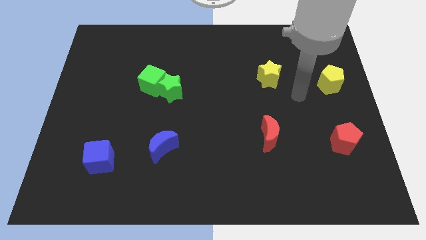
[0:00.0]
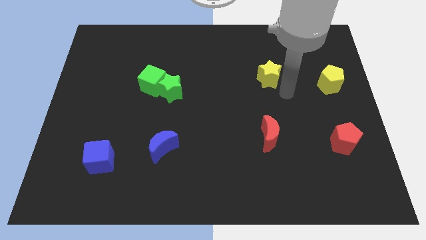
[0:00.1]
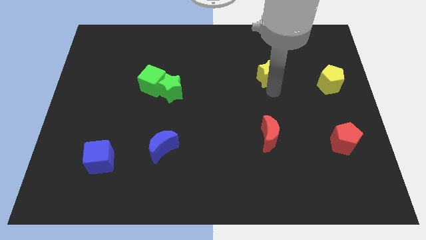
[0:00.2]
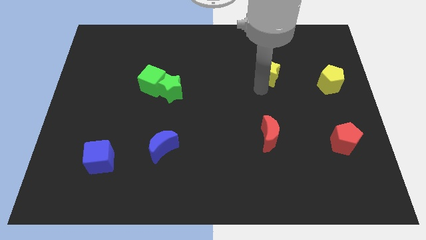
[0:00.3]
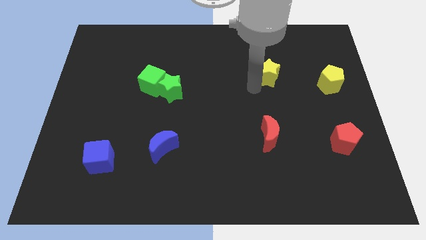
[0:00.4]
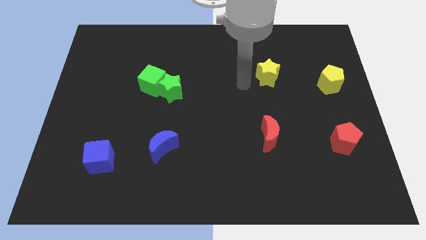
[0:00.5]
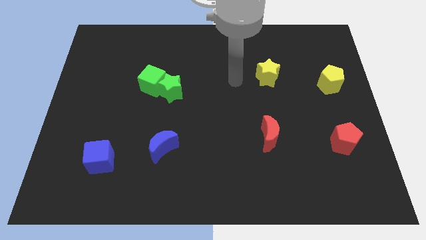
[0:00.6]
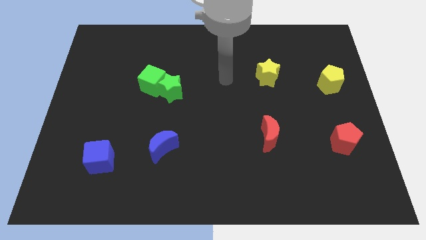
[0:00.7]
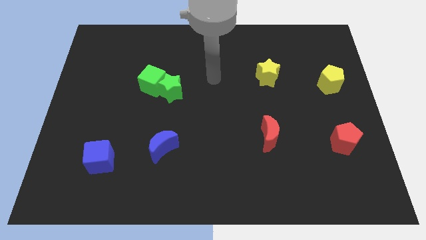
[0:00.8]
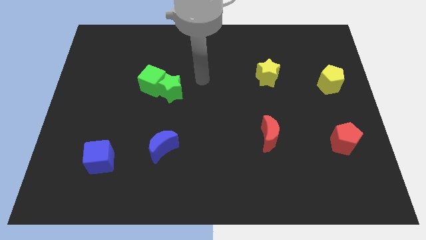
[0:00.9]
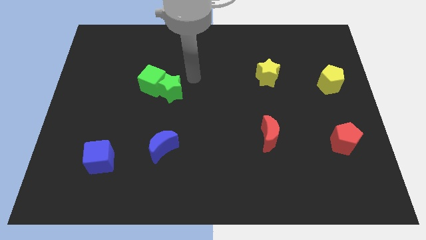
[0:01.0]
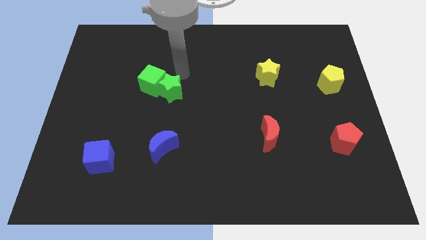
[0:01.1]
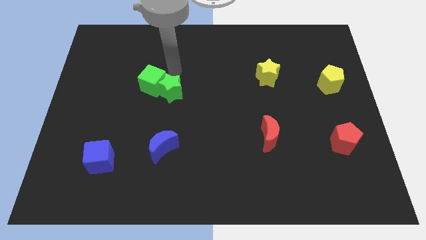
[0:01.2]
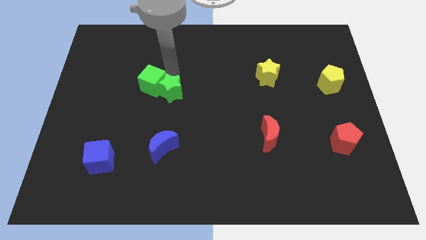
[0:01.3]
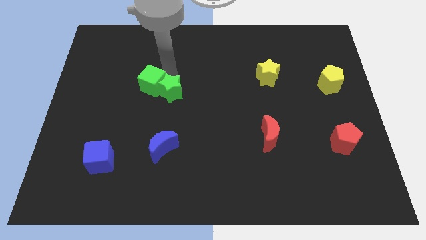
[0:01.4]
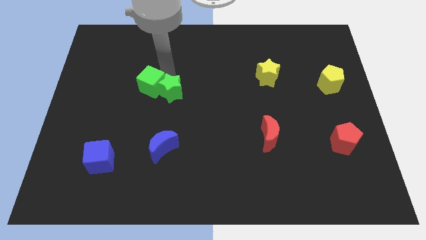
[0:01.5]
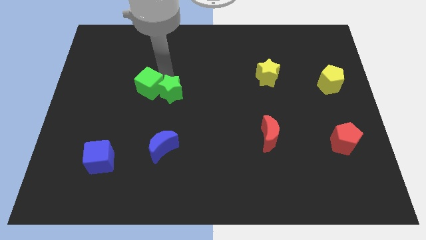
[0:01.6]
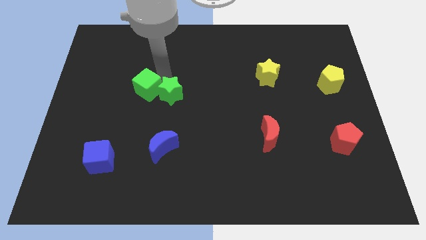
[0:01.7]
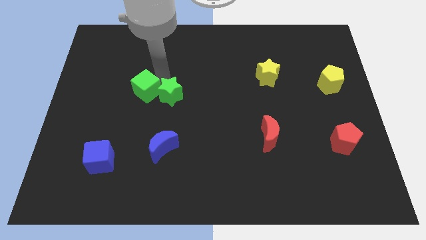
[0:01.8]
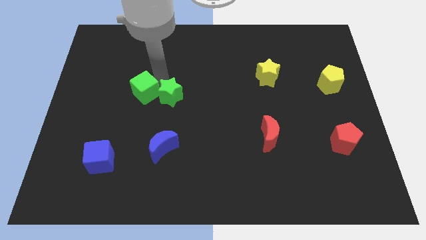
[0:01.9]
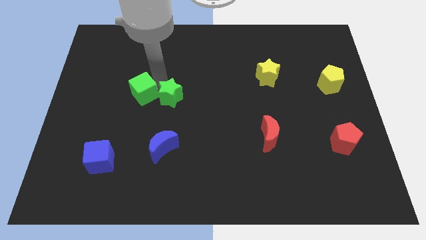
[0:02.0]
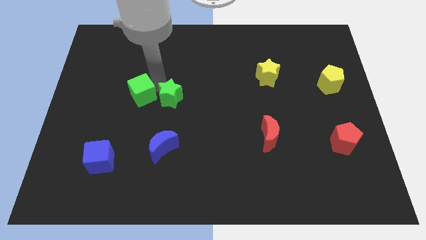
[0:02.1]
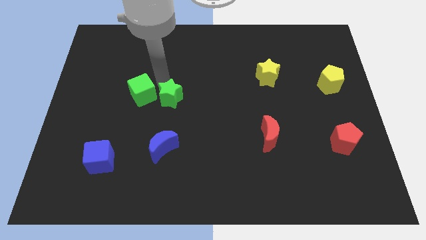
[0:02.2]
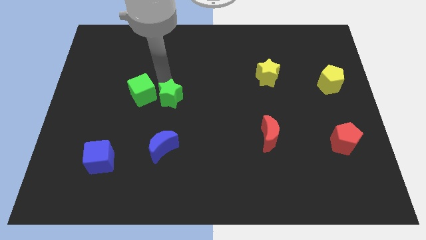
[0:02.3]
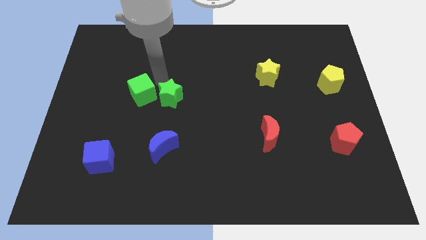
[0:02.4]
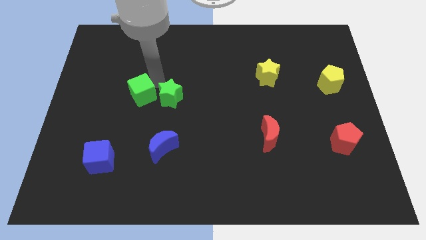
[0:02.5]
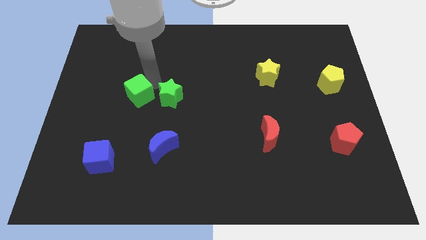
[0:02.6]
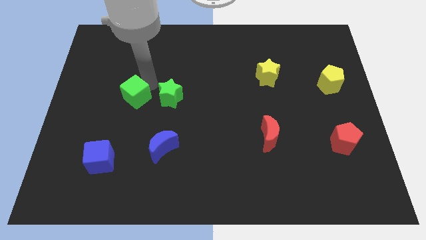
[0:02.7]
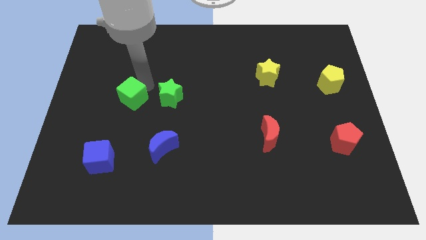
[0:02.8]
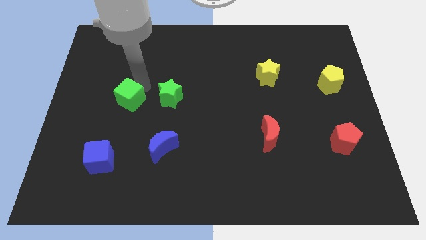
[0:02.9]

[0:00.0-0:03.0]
slide the green cube diagonally downwards and left a little bit

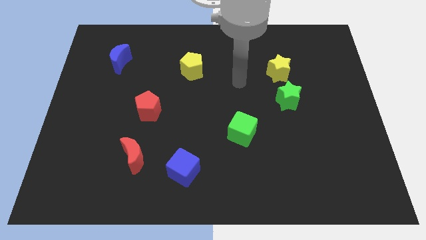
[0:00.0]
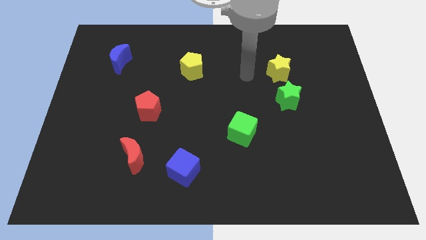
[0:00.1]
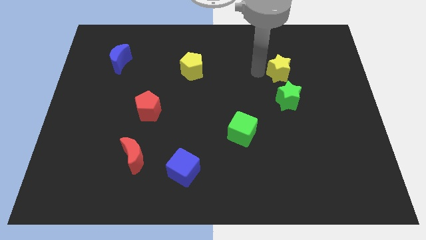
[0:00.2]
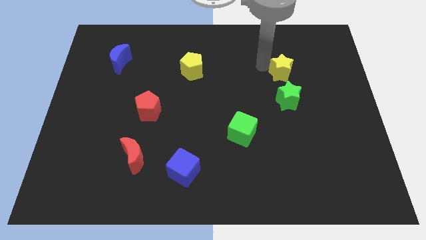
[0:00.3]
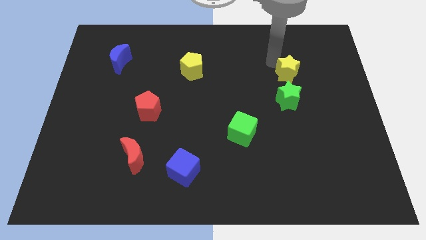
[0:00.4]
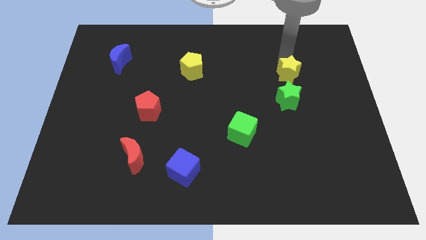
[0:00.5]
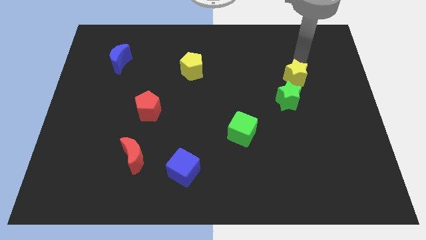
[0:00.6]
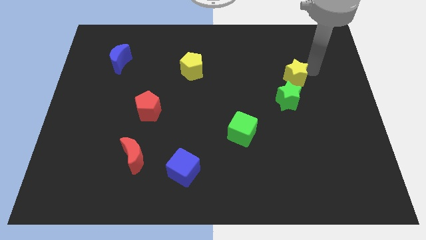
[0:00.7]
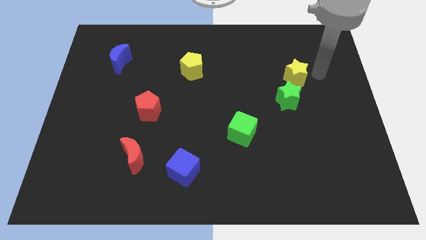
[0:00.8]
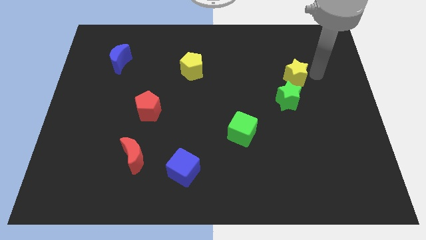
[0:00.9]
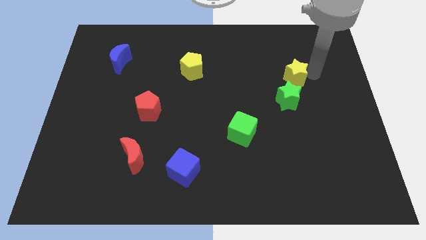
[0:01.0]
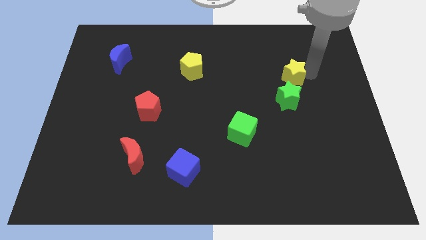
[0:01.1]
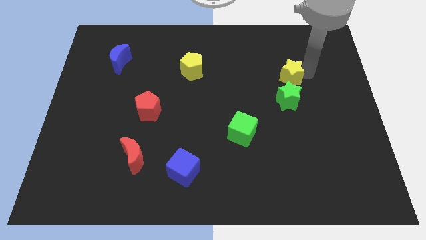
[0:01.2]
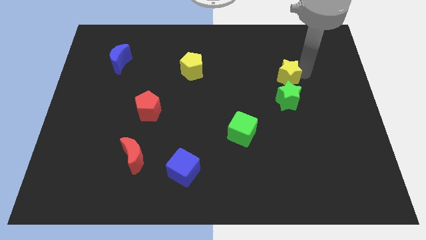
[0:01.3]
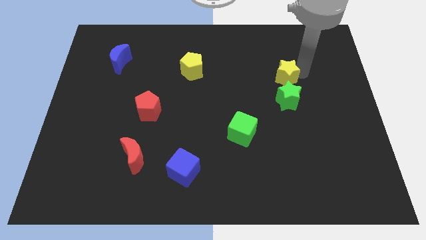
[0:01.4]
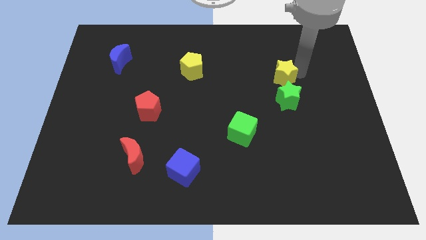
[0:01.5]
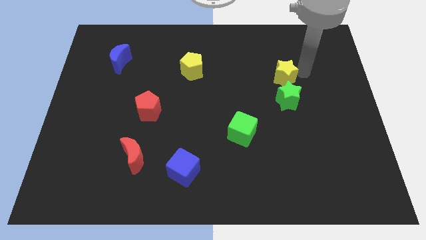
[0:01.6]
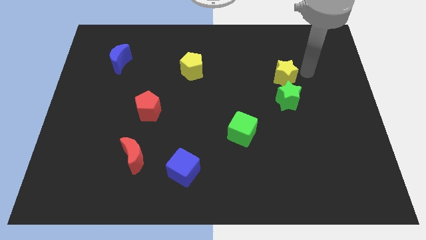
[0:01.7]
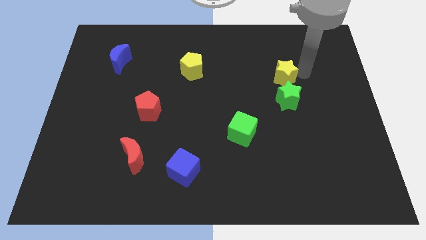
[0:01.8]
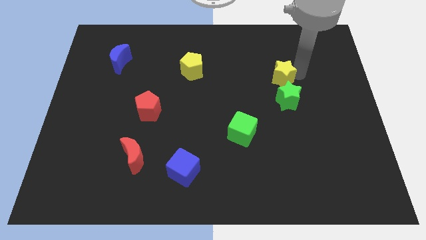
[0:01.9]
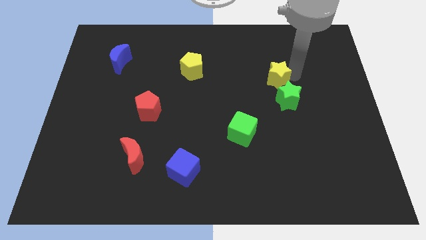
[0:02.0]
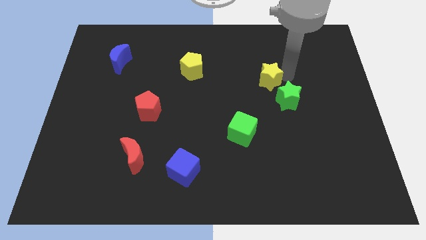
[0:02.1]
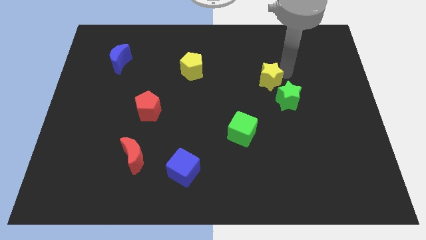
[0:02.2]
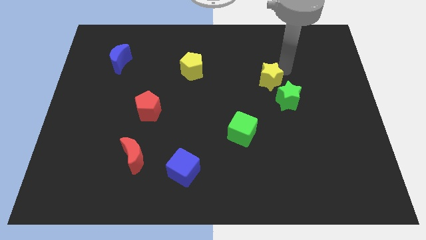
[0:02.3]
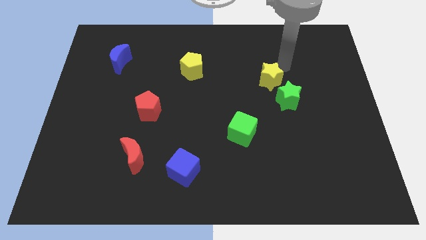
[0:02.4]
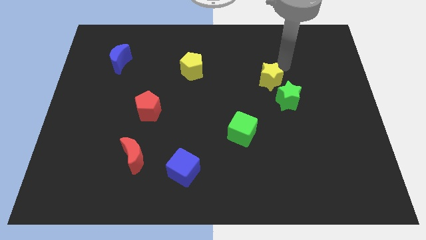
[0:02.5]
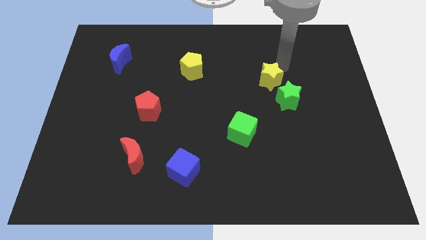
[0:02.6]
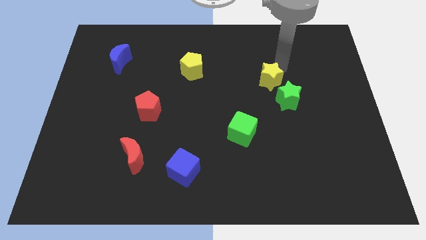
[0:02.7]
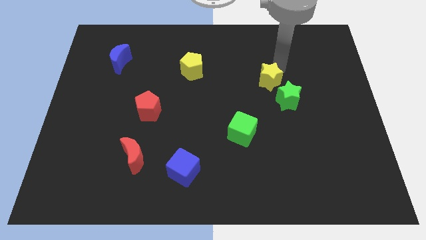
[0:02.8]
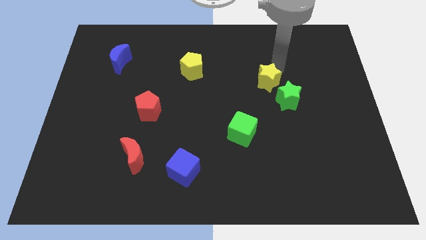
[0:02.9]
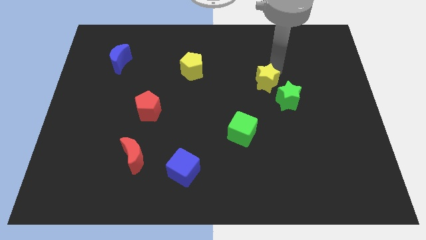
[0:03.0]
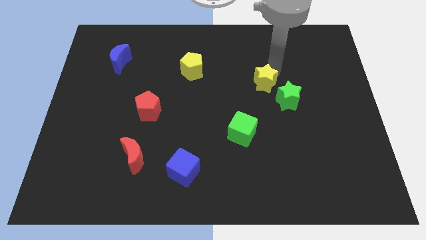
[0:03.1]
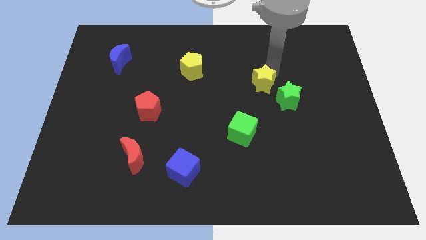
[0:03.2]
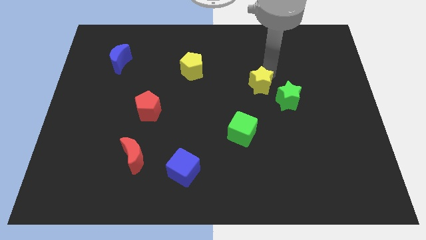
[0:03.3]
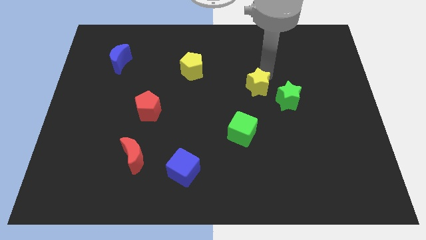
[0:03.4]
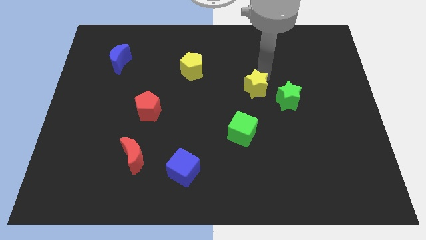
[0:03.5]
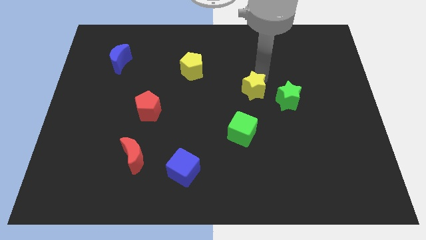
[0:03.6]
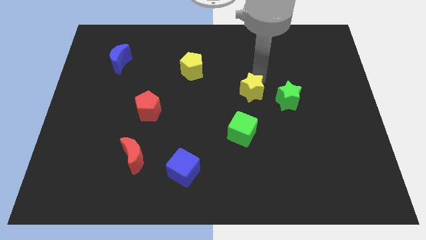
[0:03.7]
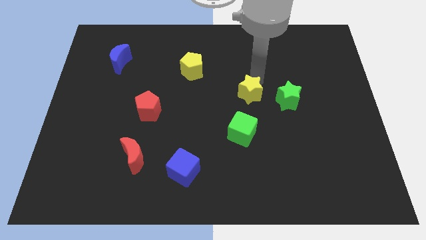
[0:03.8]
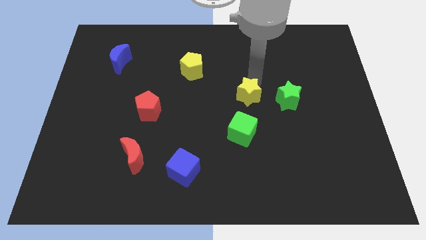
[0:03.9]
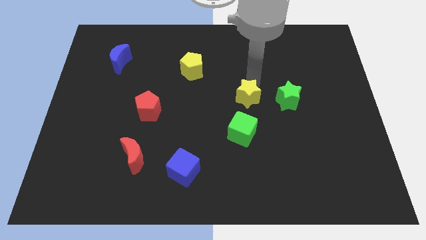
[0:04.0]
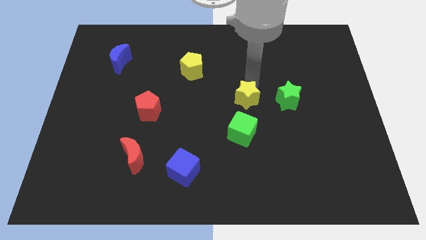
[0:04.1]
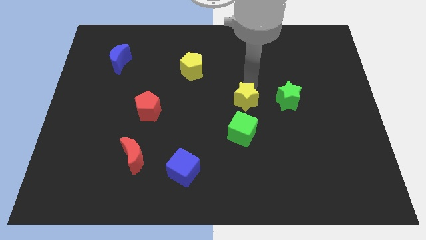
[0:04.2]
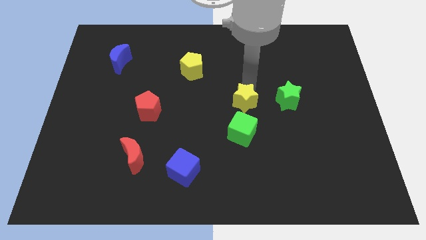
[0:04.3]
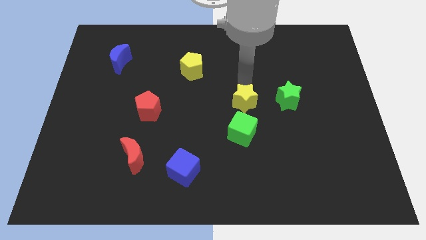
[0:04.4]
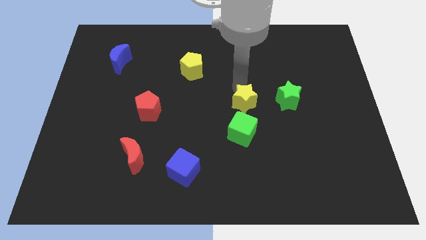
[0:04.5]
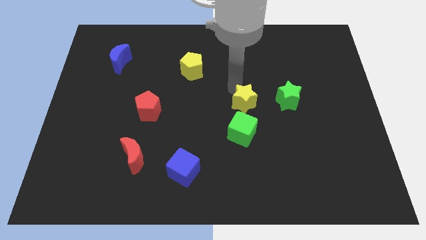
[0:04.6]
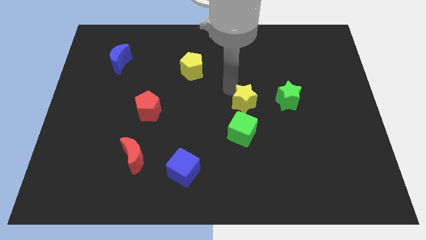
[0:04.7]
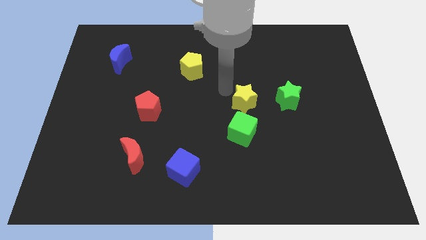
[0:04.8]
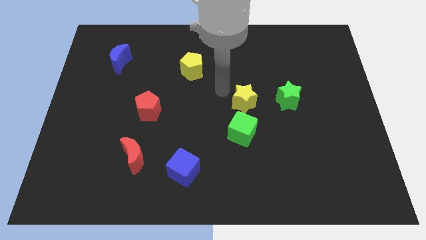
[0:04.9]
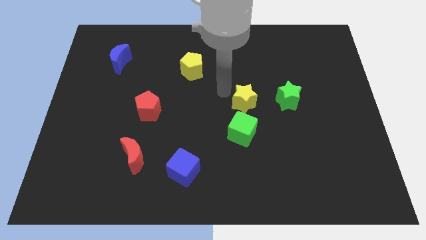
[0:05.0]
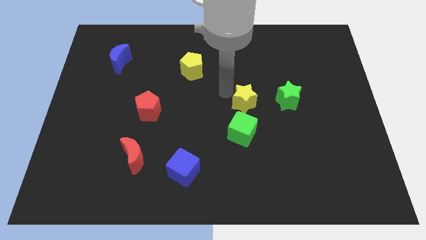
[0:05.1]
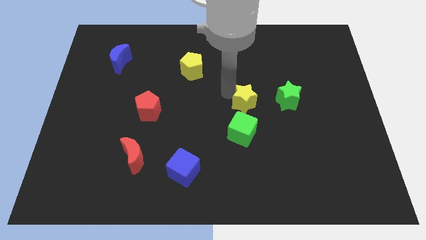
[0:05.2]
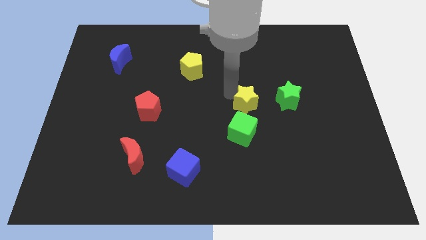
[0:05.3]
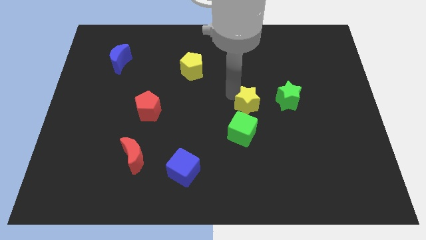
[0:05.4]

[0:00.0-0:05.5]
slightly slide the yellow star down
